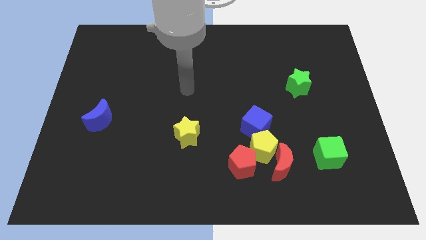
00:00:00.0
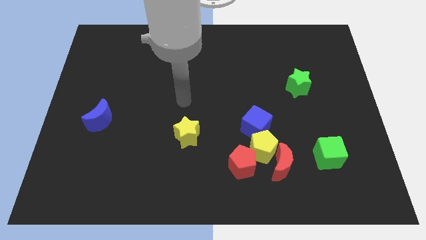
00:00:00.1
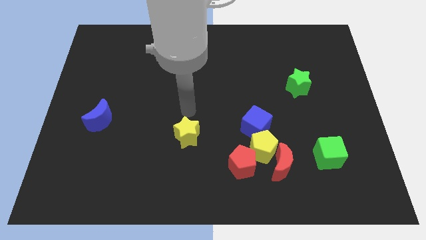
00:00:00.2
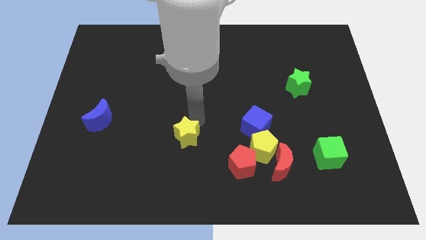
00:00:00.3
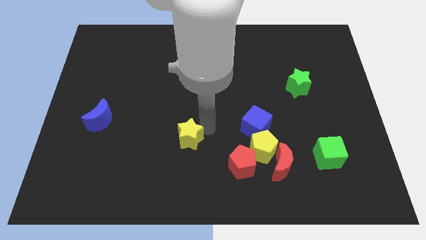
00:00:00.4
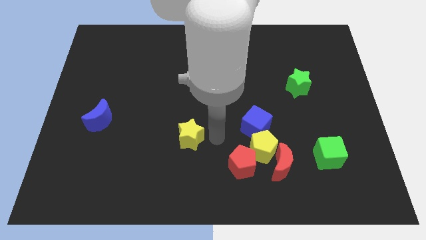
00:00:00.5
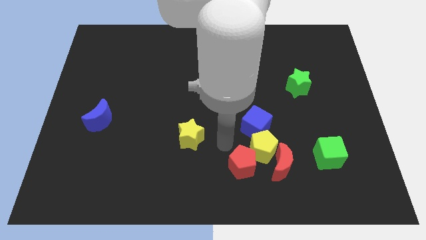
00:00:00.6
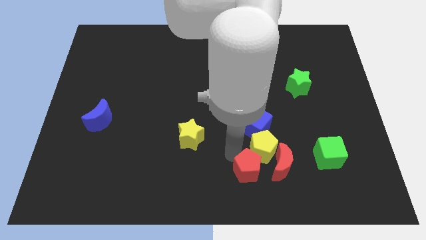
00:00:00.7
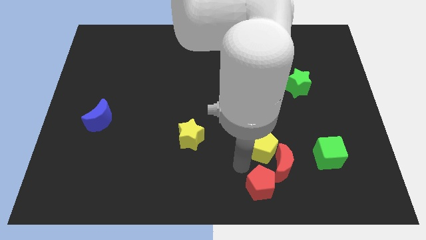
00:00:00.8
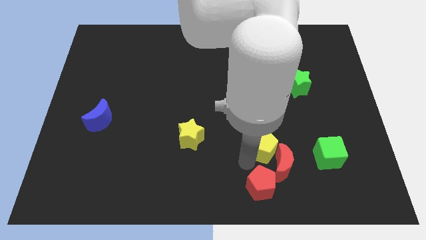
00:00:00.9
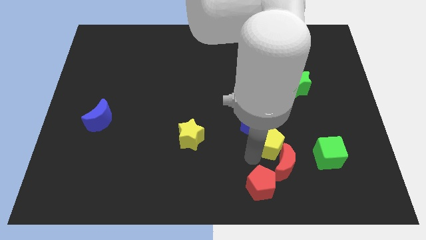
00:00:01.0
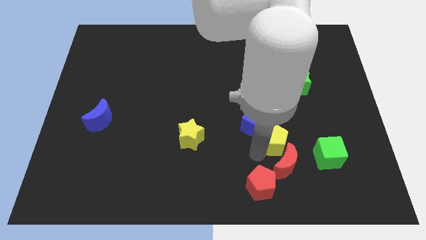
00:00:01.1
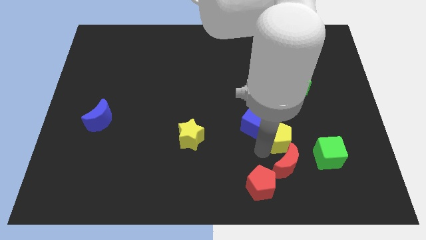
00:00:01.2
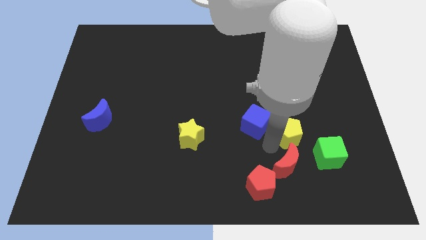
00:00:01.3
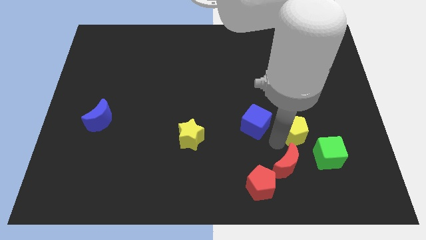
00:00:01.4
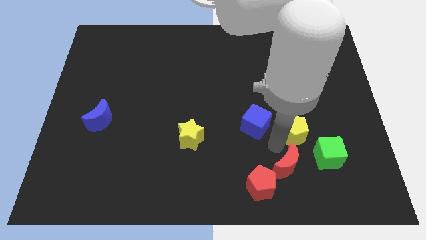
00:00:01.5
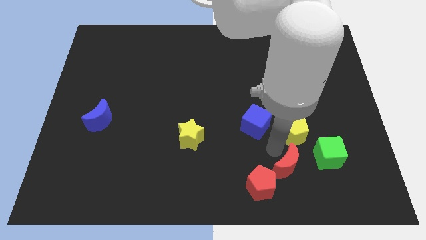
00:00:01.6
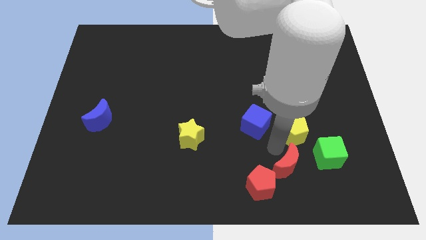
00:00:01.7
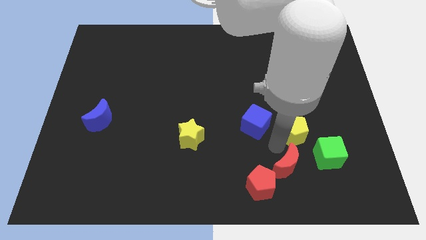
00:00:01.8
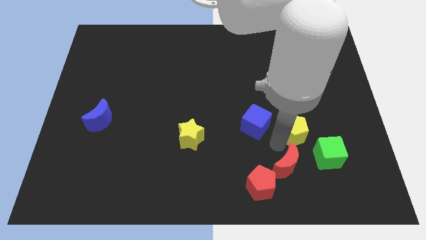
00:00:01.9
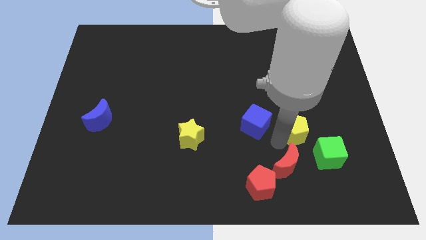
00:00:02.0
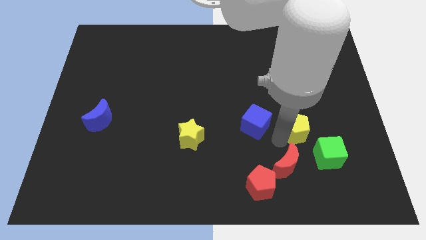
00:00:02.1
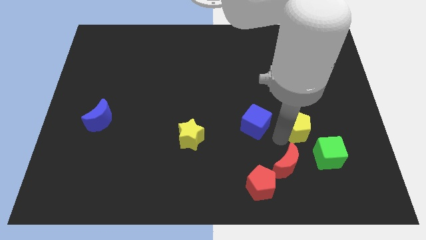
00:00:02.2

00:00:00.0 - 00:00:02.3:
pull the yellow pentagon apart from the group

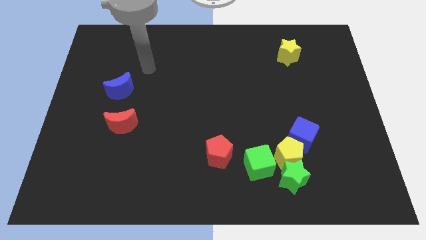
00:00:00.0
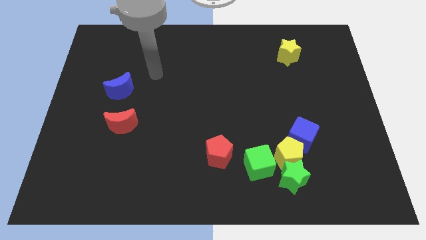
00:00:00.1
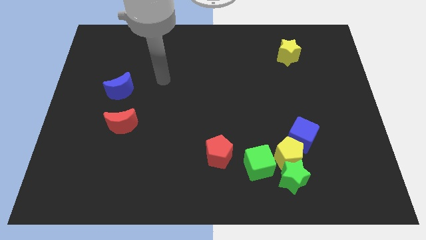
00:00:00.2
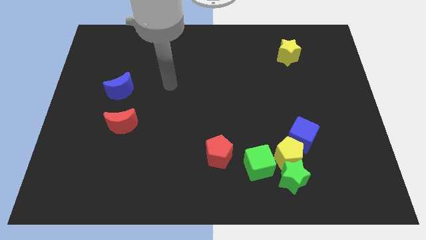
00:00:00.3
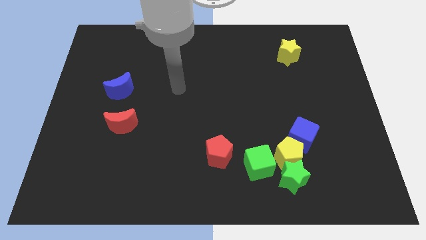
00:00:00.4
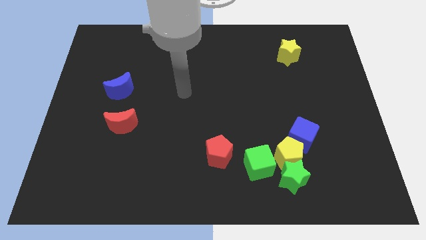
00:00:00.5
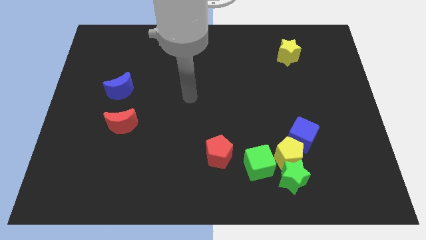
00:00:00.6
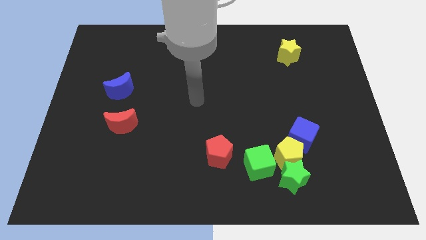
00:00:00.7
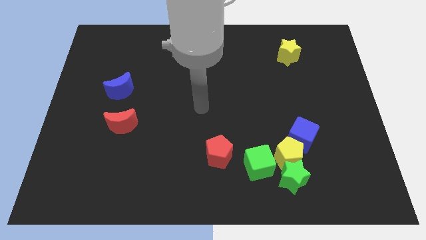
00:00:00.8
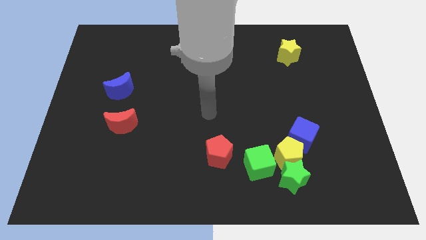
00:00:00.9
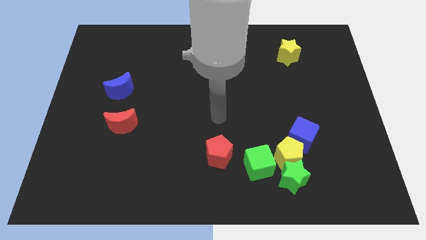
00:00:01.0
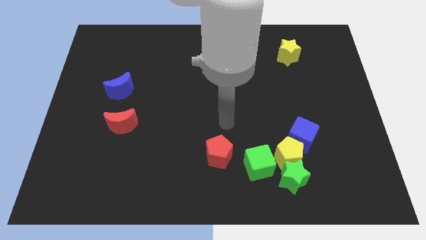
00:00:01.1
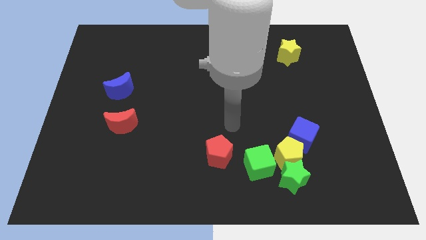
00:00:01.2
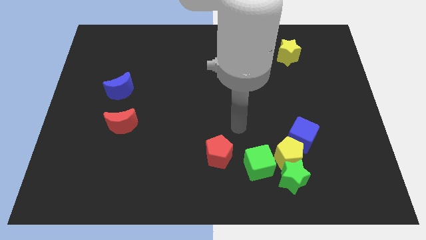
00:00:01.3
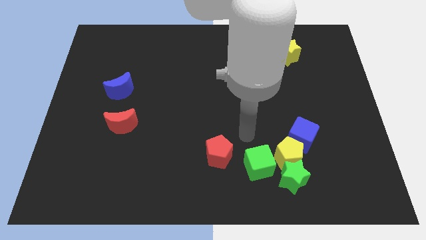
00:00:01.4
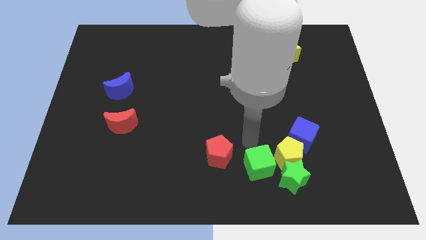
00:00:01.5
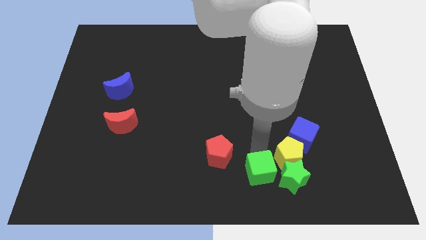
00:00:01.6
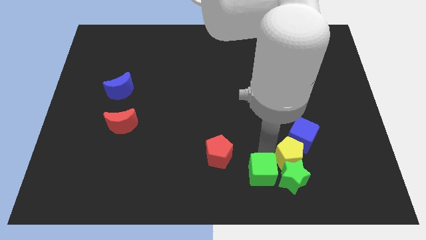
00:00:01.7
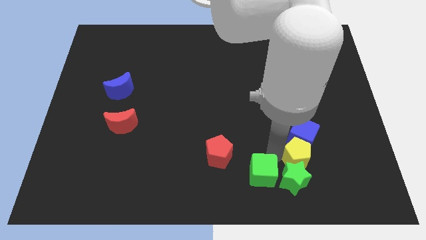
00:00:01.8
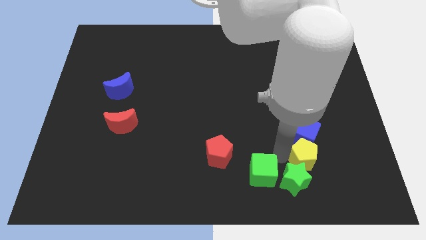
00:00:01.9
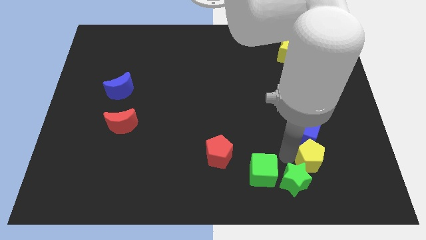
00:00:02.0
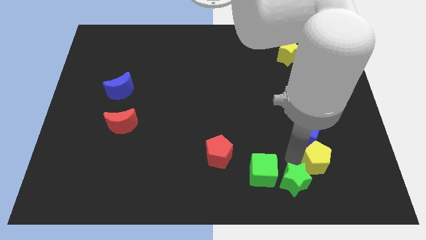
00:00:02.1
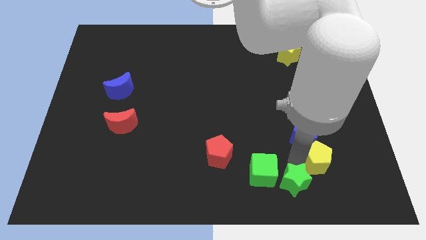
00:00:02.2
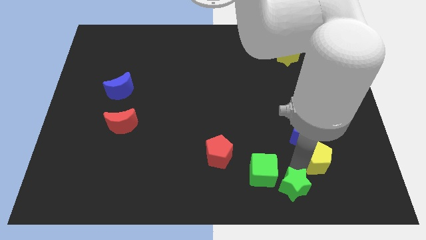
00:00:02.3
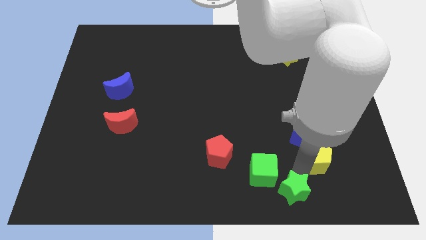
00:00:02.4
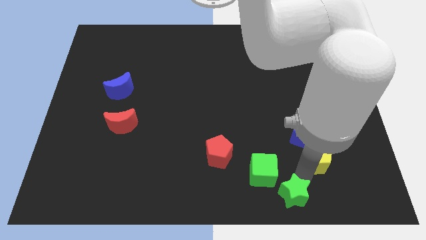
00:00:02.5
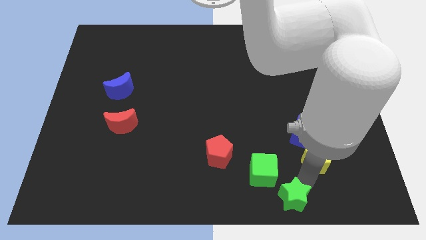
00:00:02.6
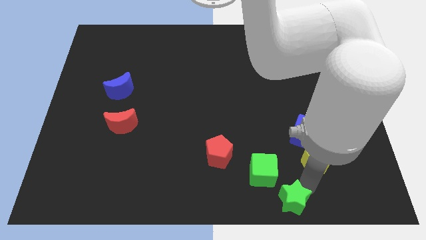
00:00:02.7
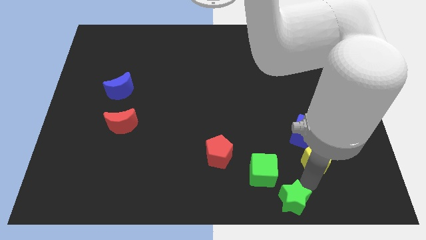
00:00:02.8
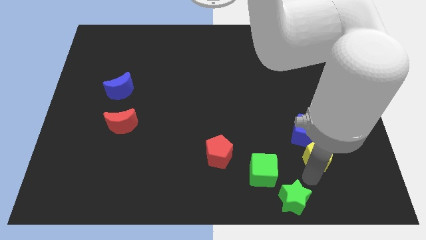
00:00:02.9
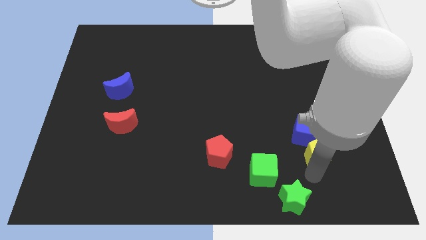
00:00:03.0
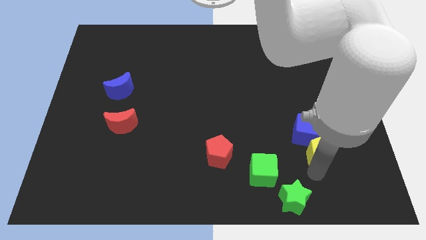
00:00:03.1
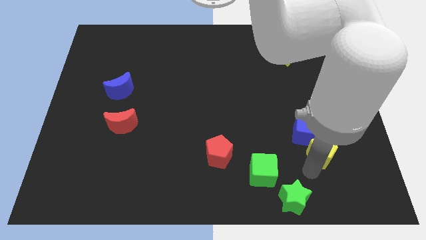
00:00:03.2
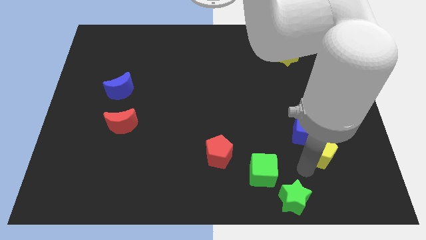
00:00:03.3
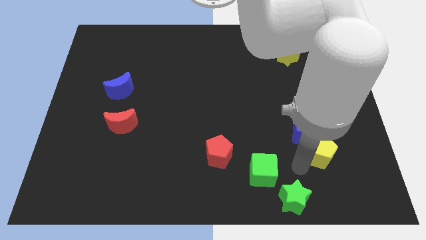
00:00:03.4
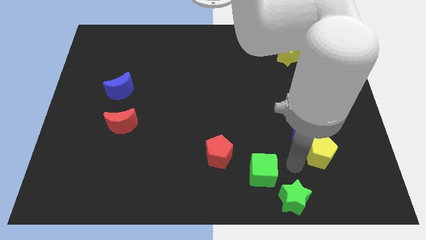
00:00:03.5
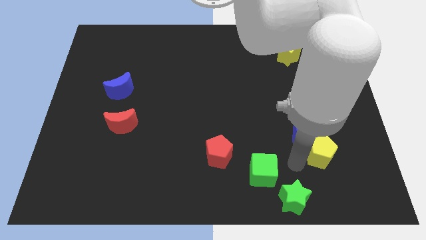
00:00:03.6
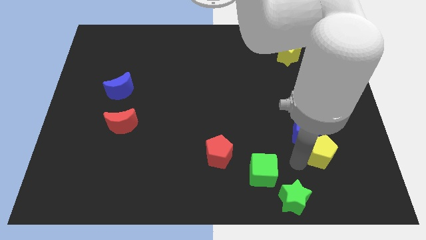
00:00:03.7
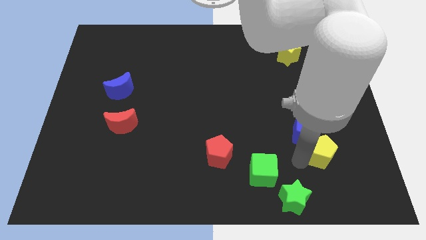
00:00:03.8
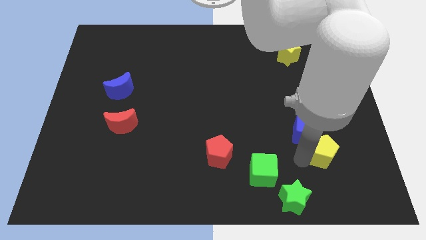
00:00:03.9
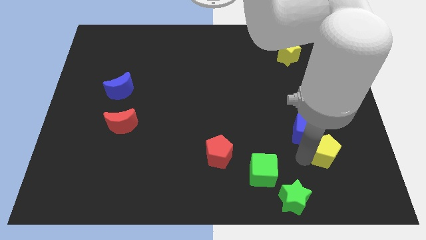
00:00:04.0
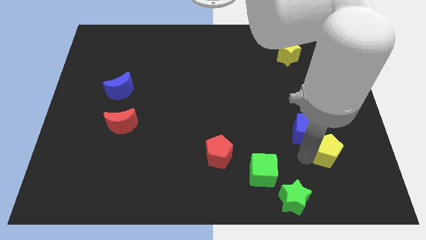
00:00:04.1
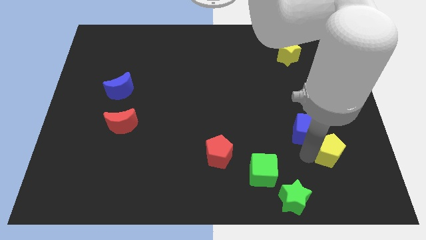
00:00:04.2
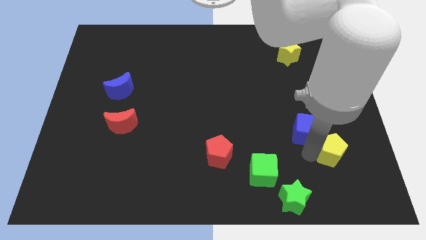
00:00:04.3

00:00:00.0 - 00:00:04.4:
pull the yellow pentagon apart from the group of blocks

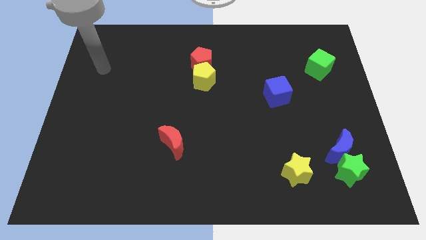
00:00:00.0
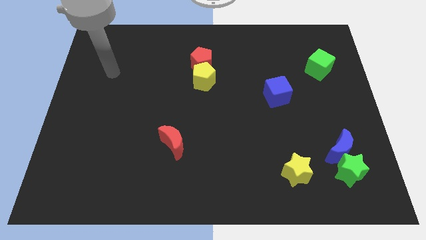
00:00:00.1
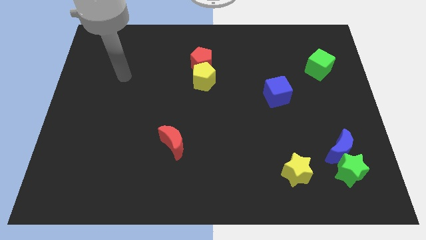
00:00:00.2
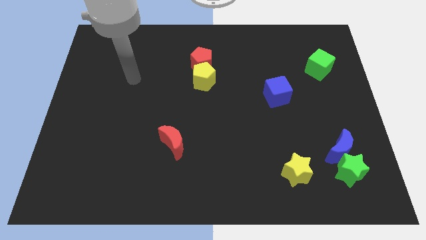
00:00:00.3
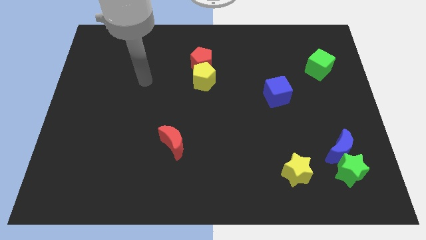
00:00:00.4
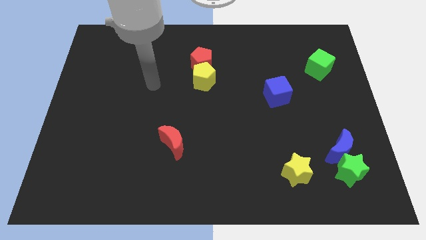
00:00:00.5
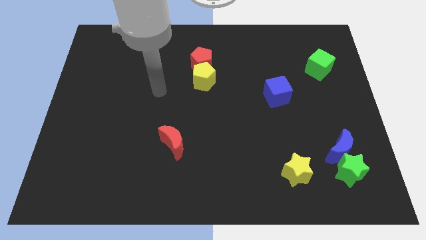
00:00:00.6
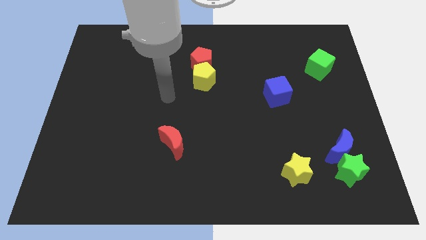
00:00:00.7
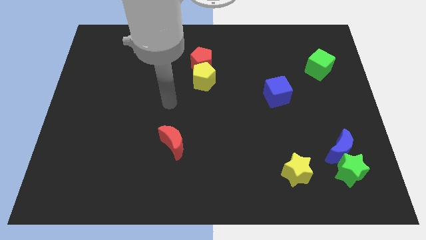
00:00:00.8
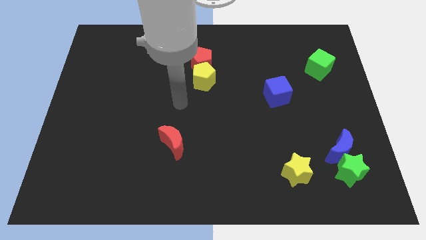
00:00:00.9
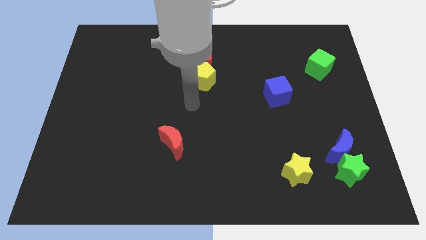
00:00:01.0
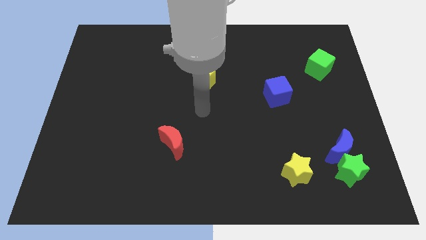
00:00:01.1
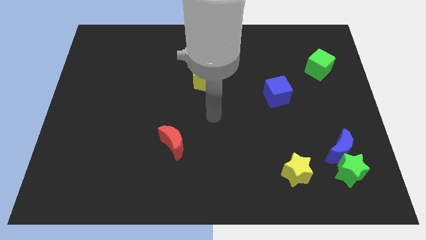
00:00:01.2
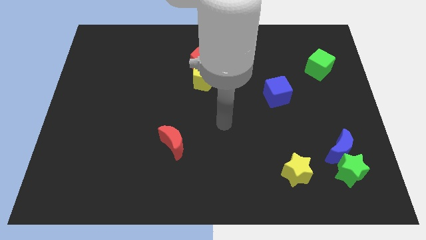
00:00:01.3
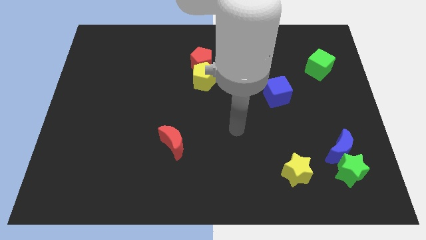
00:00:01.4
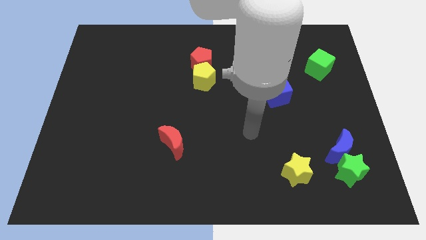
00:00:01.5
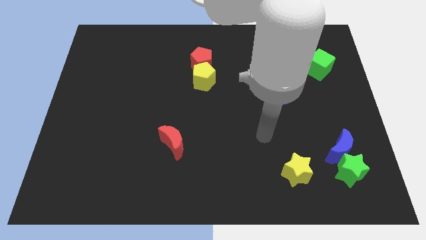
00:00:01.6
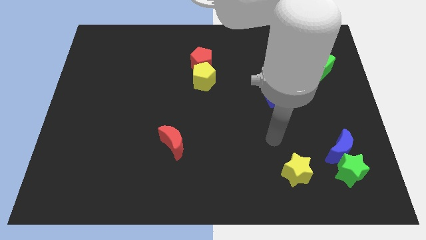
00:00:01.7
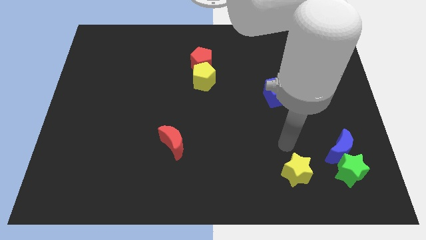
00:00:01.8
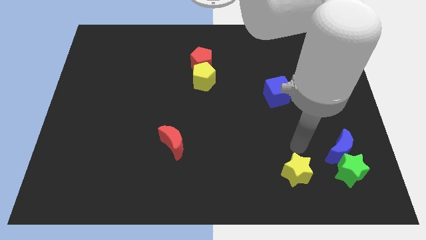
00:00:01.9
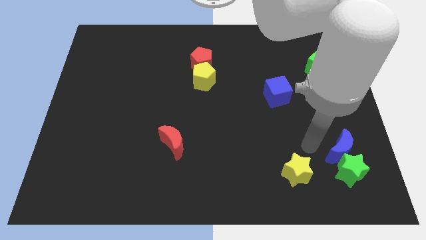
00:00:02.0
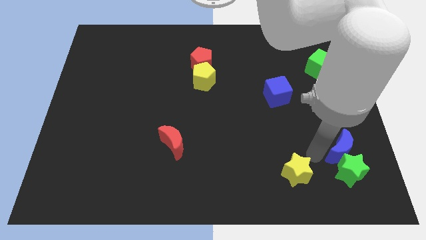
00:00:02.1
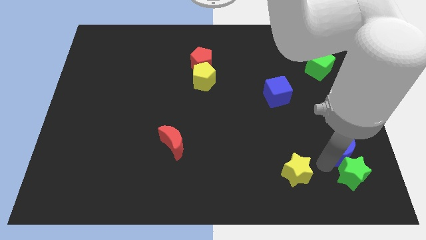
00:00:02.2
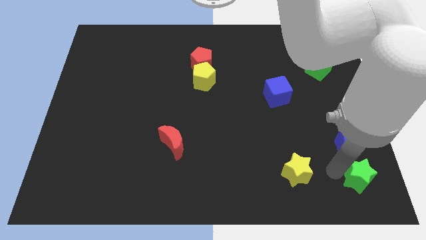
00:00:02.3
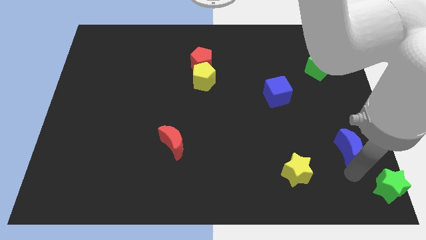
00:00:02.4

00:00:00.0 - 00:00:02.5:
pull the blue moon apart from the green star
